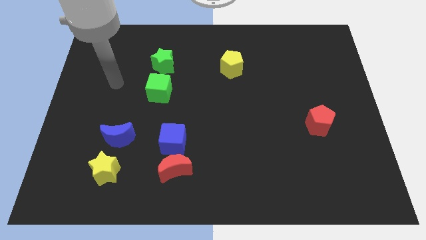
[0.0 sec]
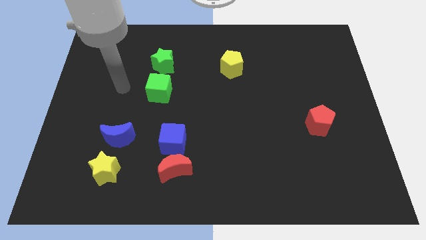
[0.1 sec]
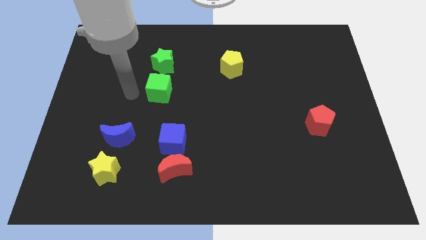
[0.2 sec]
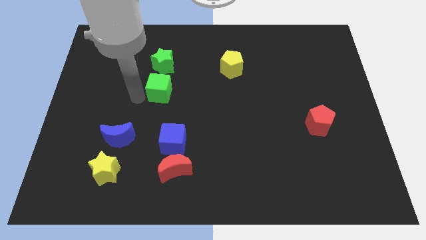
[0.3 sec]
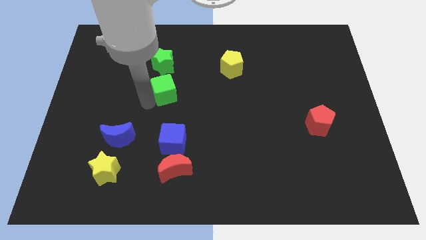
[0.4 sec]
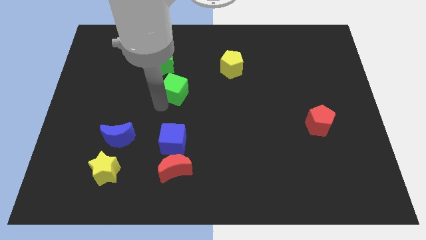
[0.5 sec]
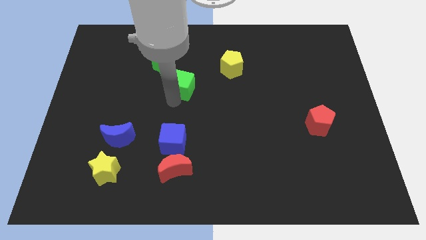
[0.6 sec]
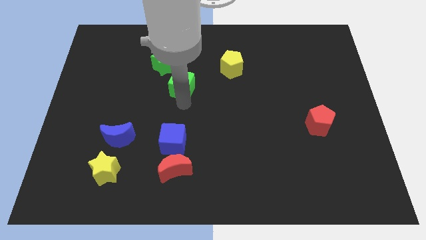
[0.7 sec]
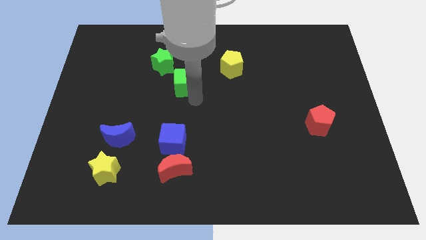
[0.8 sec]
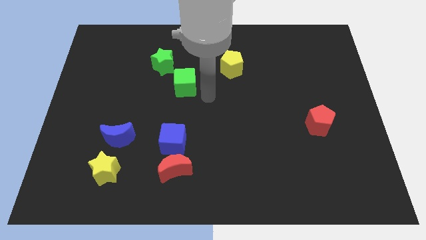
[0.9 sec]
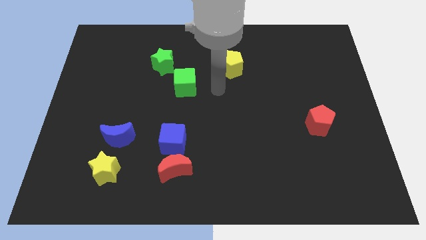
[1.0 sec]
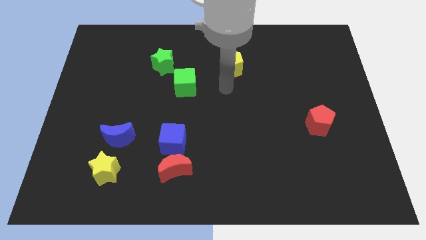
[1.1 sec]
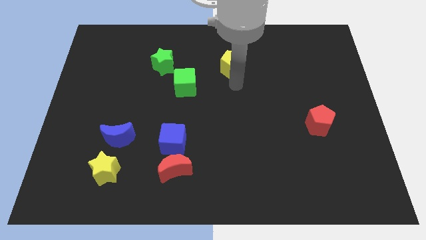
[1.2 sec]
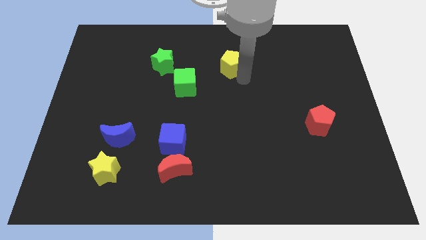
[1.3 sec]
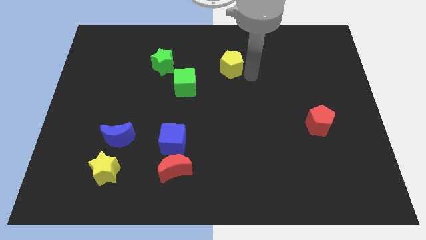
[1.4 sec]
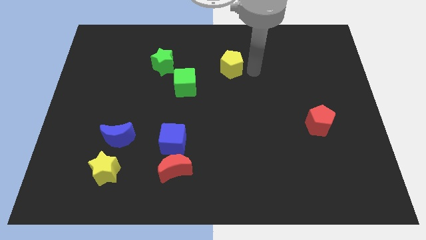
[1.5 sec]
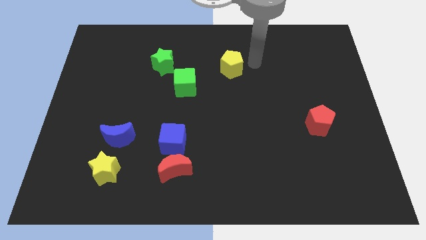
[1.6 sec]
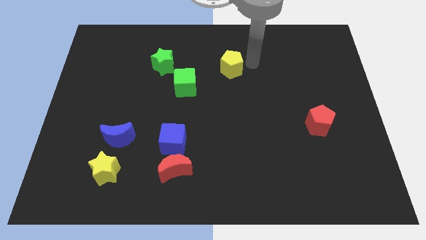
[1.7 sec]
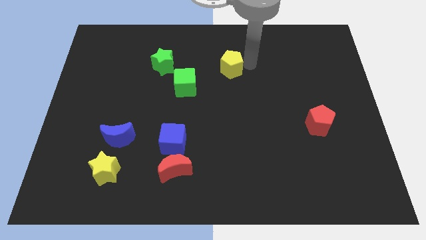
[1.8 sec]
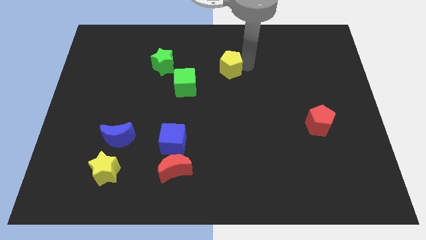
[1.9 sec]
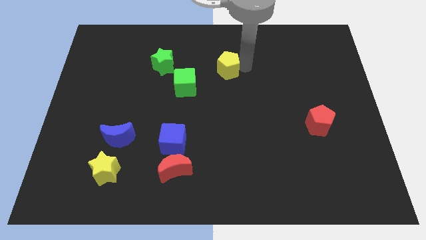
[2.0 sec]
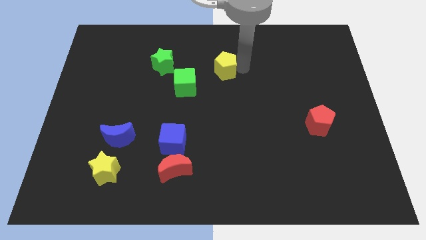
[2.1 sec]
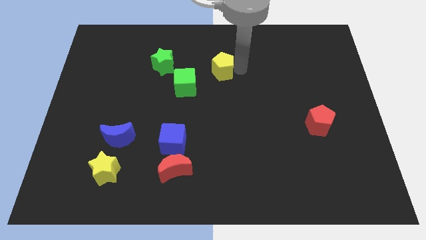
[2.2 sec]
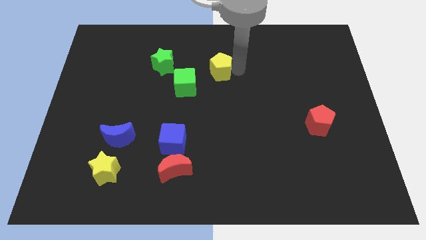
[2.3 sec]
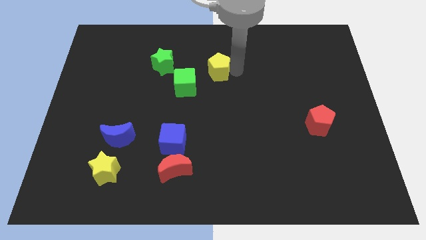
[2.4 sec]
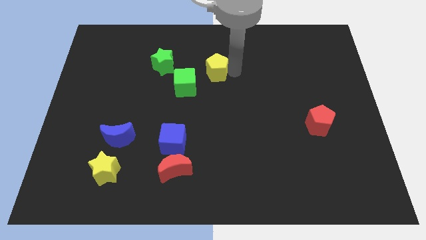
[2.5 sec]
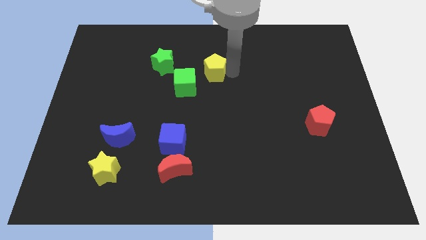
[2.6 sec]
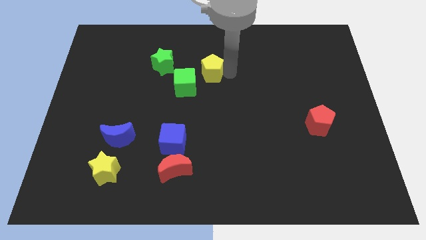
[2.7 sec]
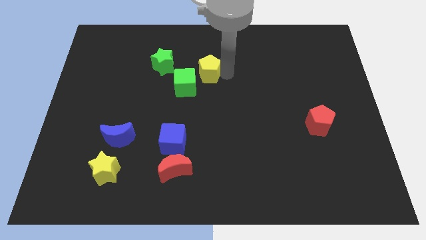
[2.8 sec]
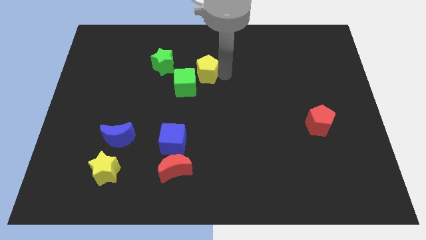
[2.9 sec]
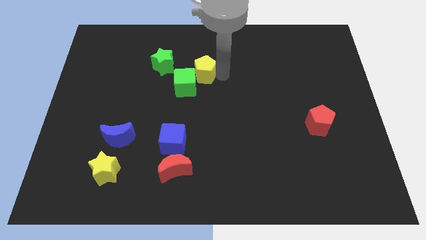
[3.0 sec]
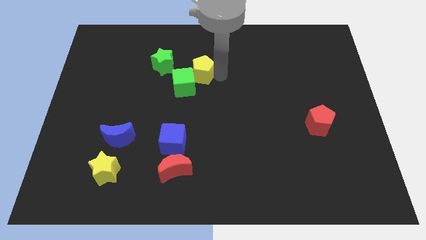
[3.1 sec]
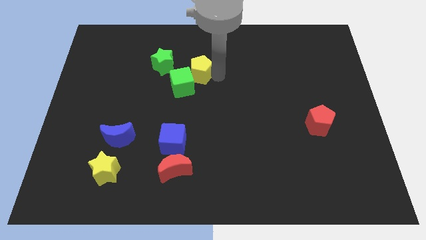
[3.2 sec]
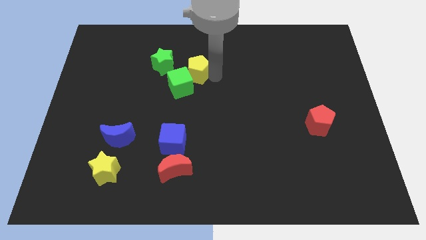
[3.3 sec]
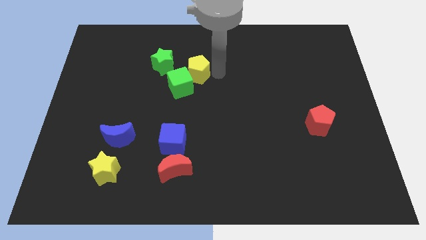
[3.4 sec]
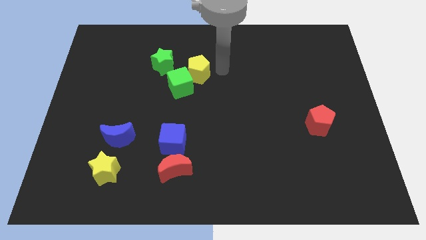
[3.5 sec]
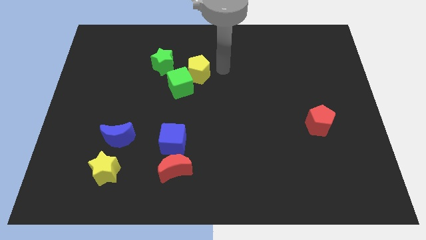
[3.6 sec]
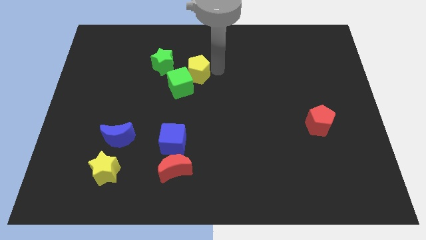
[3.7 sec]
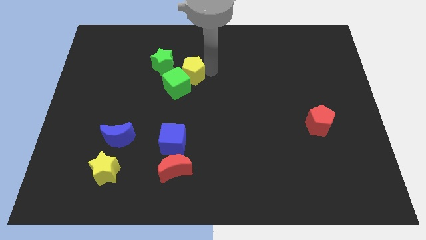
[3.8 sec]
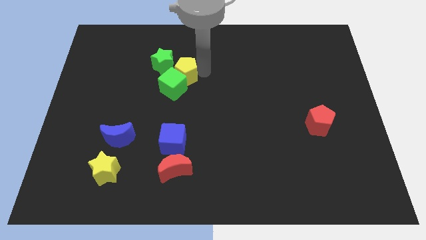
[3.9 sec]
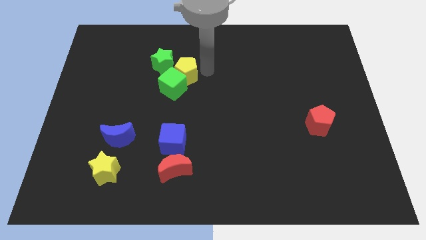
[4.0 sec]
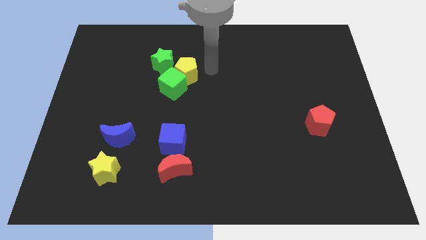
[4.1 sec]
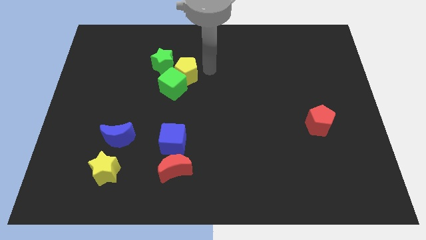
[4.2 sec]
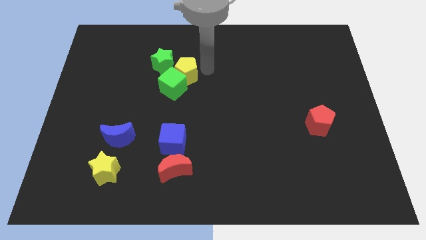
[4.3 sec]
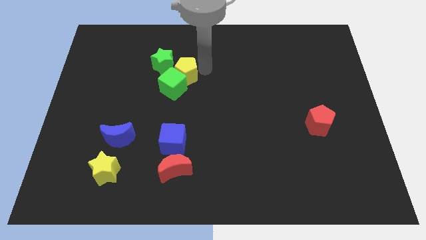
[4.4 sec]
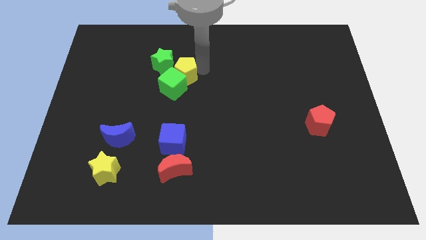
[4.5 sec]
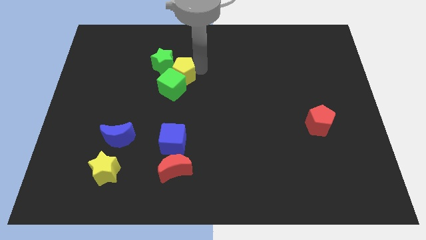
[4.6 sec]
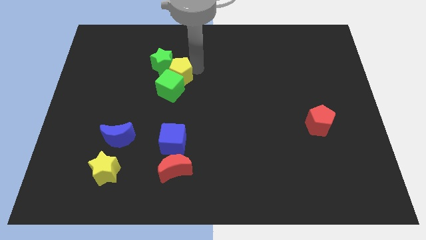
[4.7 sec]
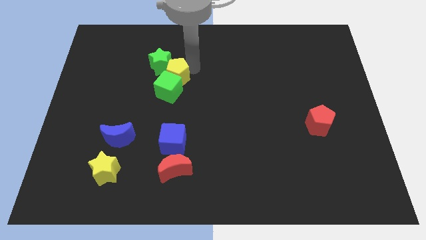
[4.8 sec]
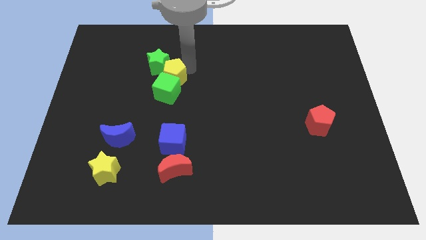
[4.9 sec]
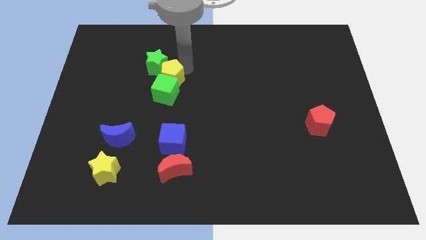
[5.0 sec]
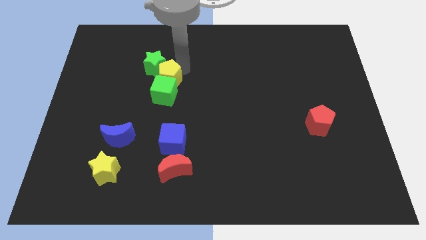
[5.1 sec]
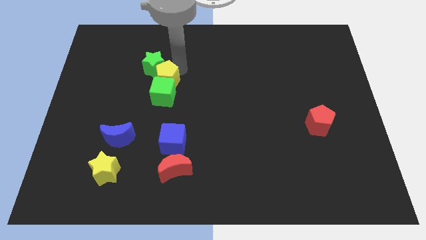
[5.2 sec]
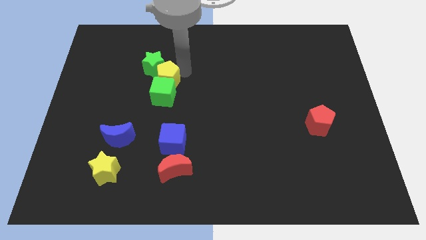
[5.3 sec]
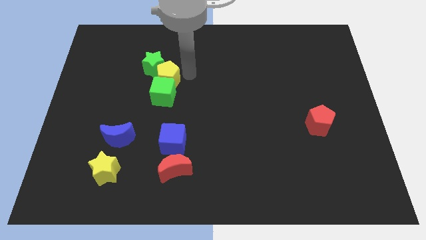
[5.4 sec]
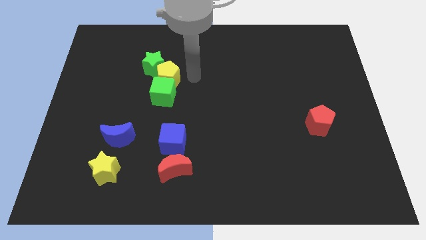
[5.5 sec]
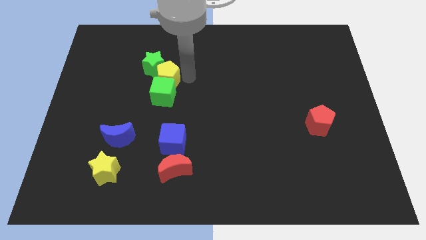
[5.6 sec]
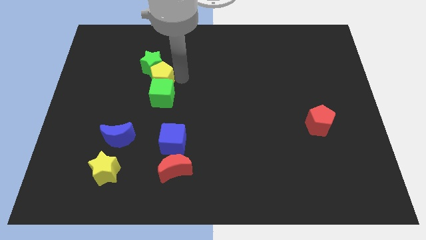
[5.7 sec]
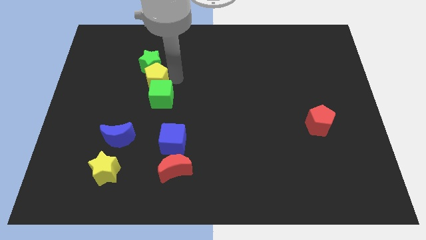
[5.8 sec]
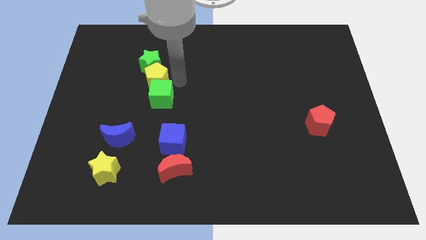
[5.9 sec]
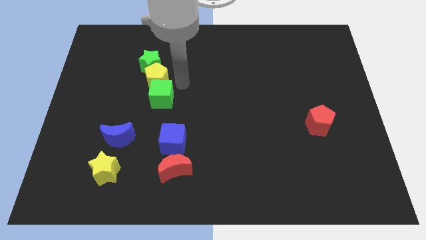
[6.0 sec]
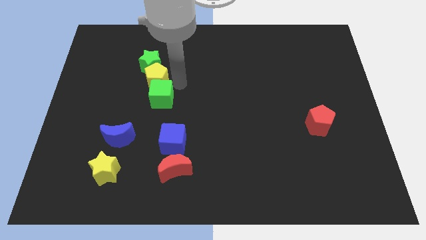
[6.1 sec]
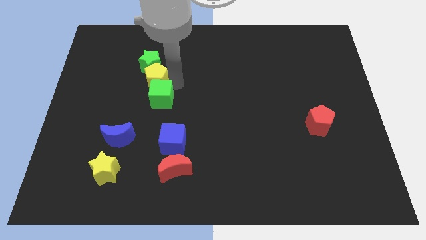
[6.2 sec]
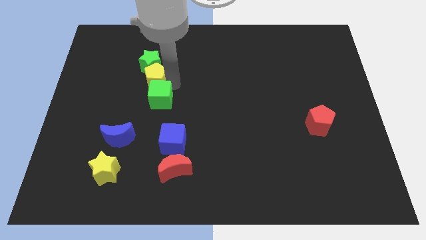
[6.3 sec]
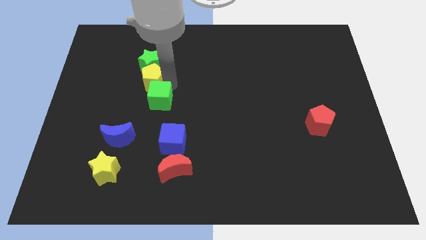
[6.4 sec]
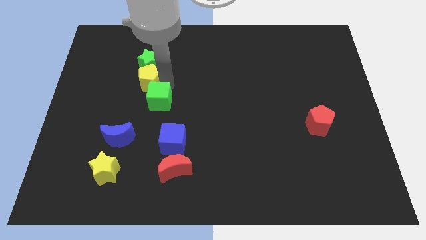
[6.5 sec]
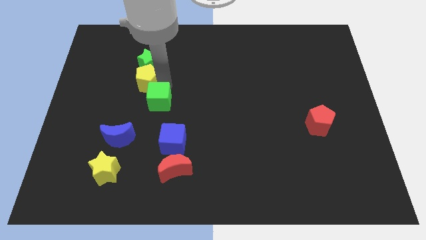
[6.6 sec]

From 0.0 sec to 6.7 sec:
slide the yellow pentagon left

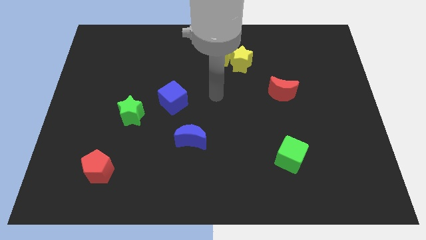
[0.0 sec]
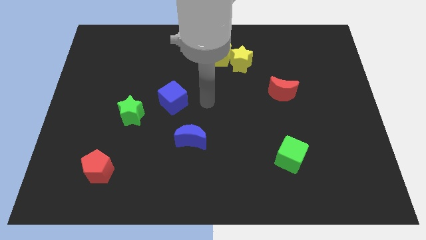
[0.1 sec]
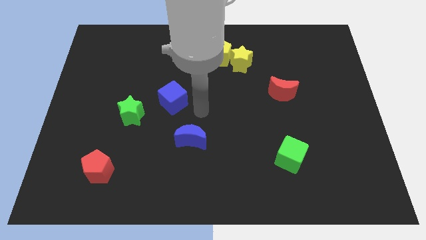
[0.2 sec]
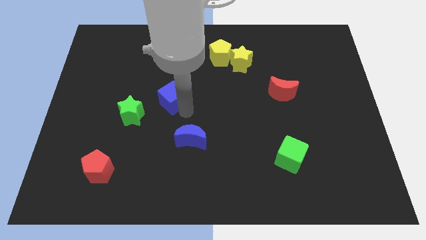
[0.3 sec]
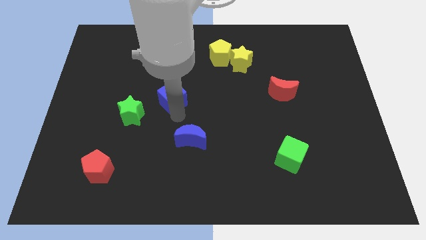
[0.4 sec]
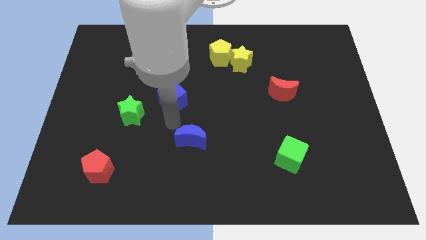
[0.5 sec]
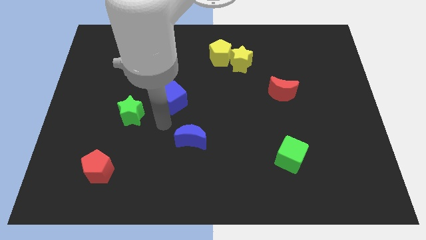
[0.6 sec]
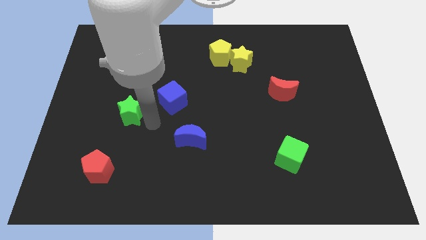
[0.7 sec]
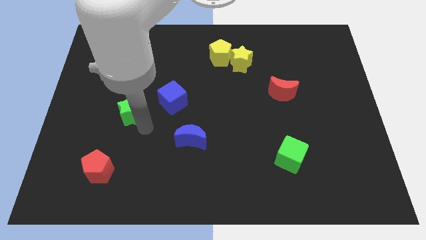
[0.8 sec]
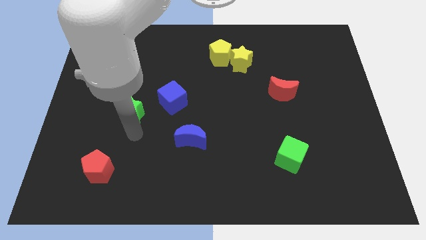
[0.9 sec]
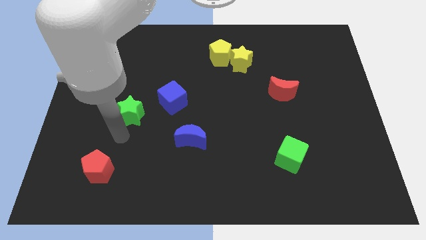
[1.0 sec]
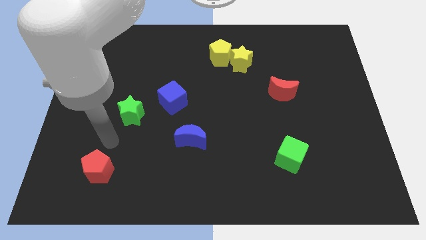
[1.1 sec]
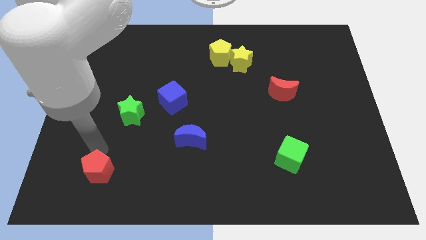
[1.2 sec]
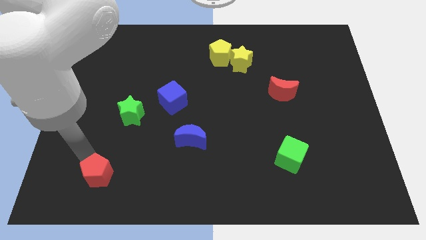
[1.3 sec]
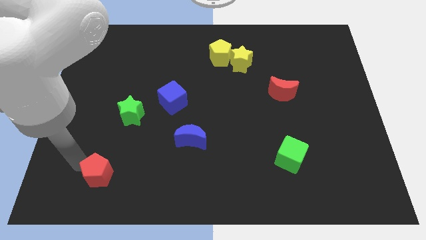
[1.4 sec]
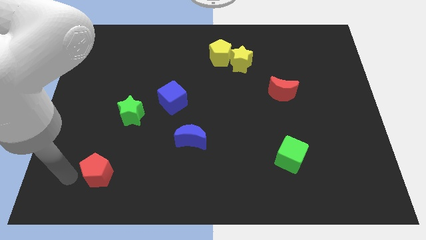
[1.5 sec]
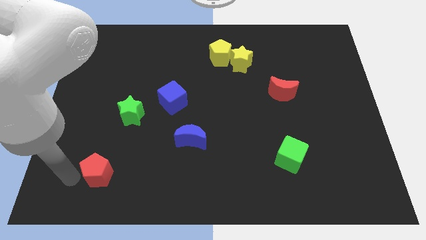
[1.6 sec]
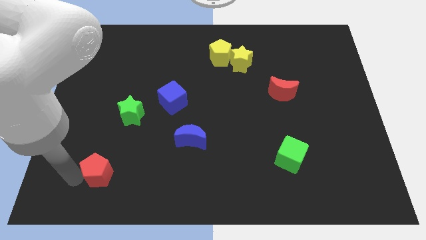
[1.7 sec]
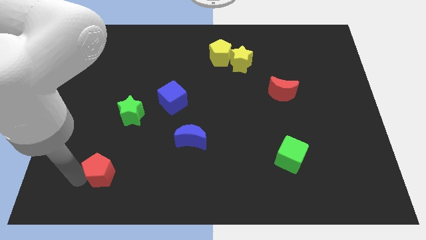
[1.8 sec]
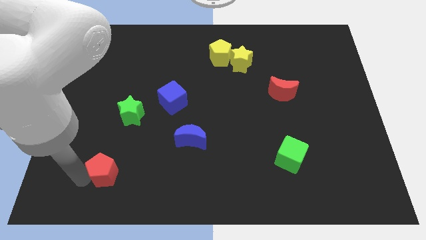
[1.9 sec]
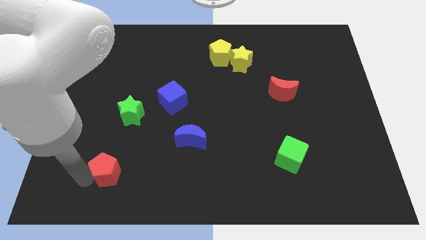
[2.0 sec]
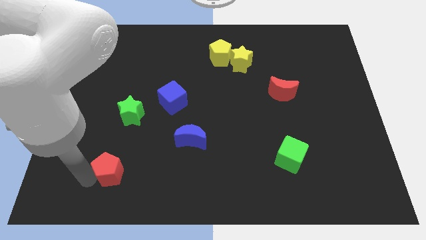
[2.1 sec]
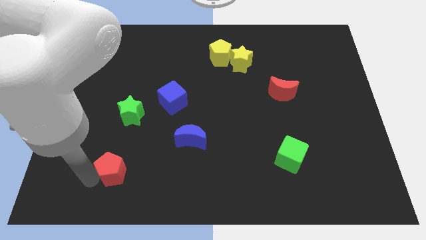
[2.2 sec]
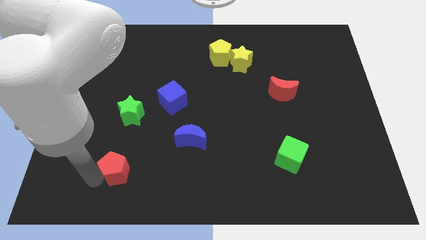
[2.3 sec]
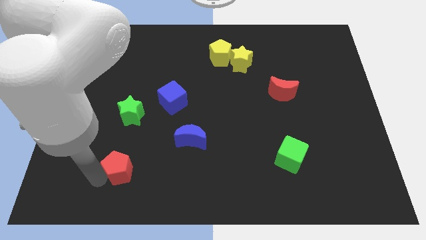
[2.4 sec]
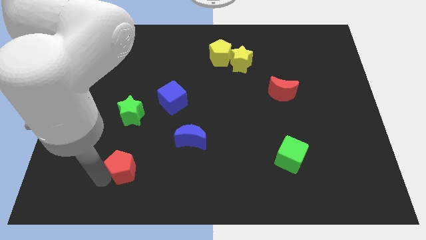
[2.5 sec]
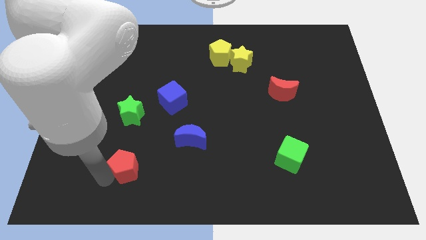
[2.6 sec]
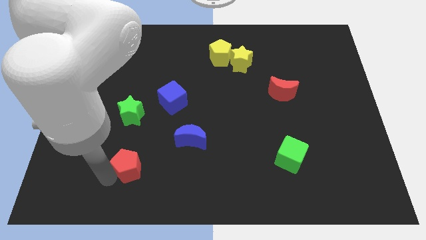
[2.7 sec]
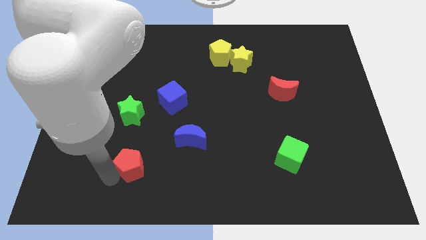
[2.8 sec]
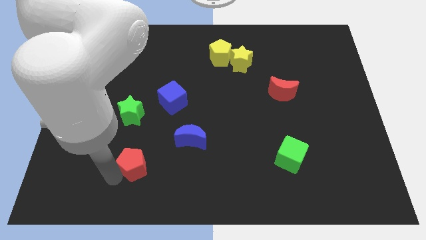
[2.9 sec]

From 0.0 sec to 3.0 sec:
push the red pentagon right slightly
